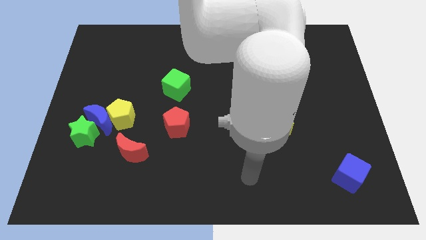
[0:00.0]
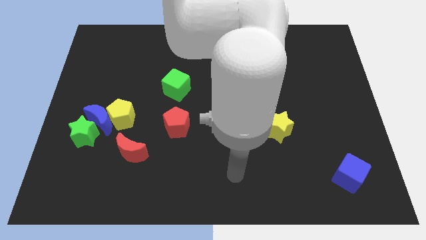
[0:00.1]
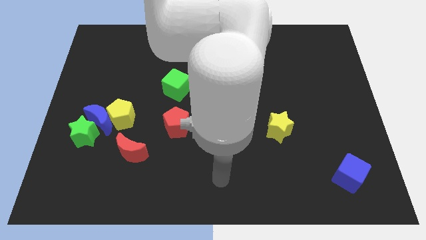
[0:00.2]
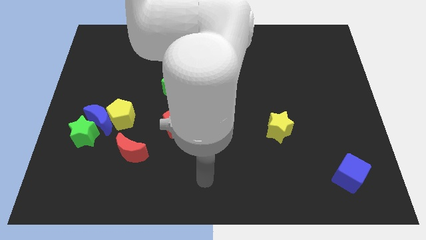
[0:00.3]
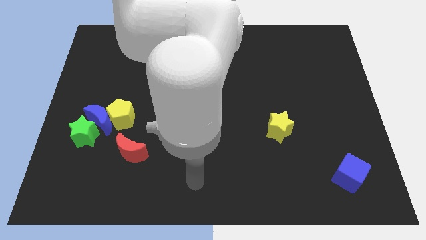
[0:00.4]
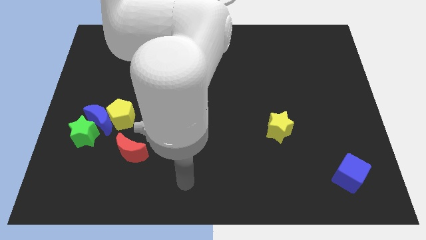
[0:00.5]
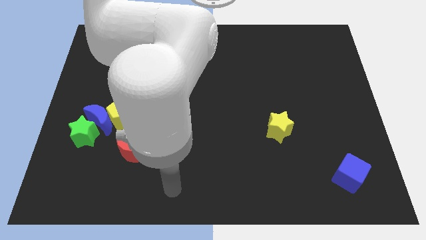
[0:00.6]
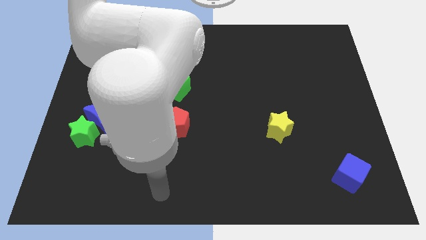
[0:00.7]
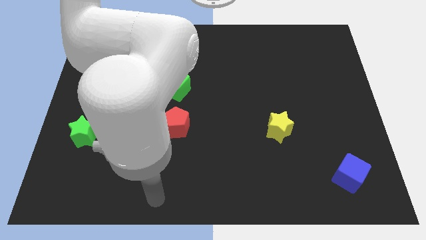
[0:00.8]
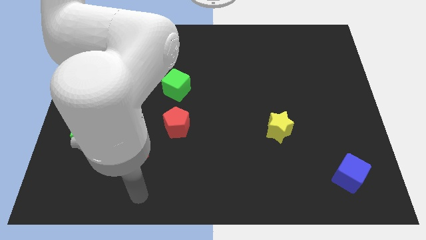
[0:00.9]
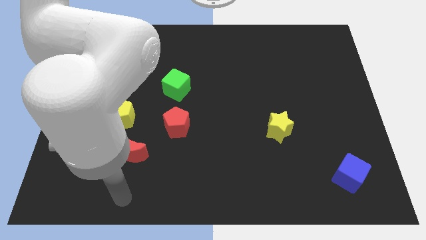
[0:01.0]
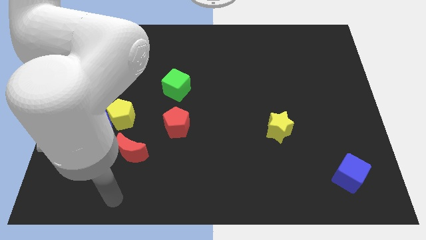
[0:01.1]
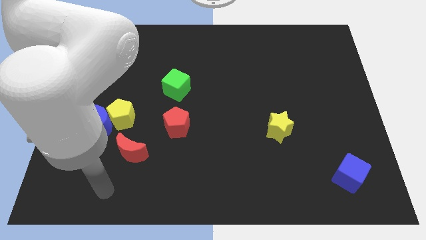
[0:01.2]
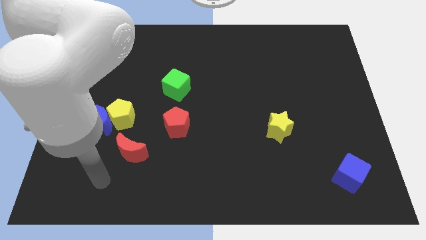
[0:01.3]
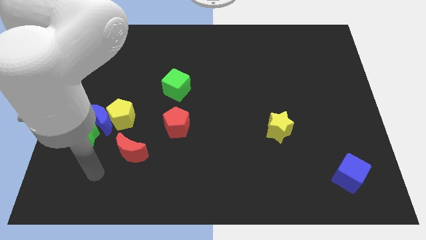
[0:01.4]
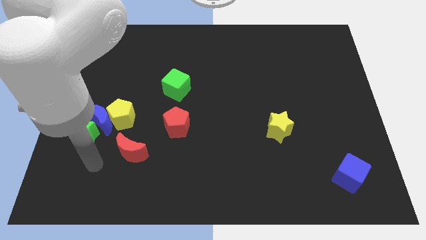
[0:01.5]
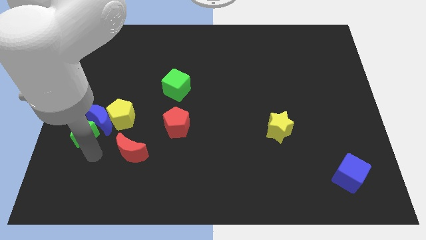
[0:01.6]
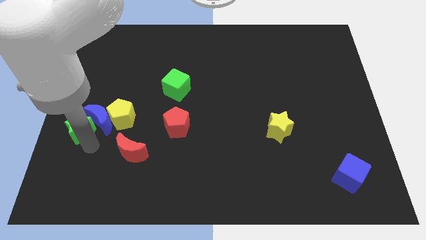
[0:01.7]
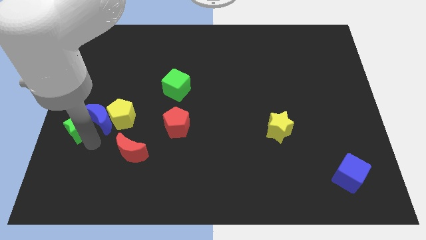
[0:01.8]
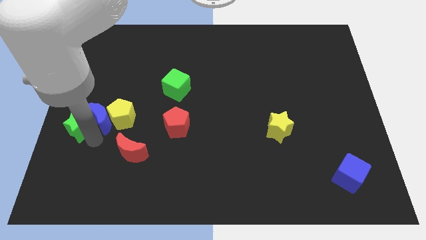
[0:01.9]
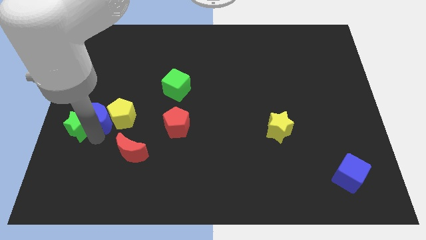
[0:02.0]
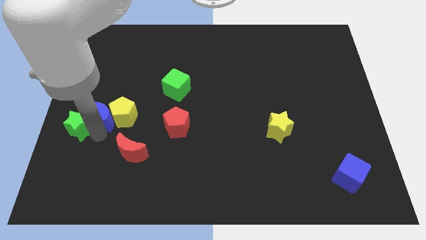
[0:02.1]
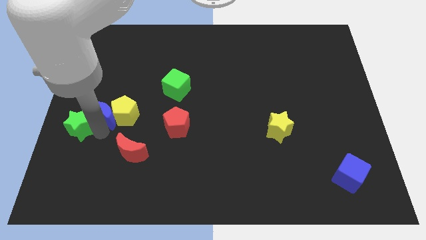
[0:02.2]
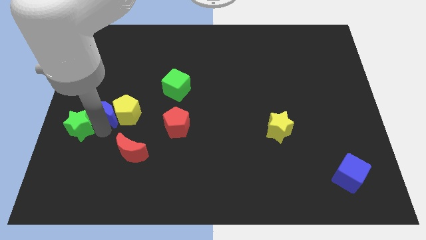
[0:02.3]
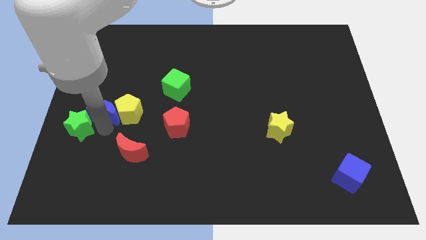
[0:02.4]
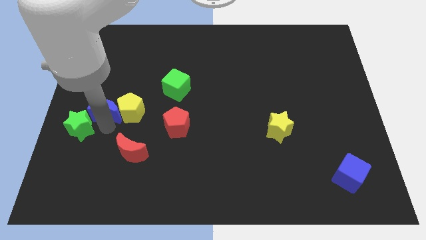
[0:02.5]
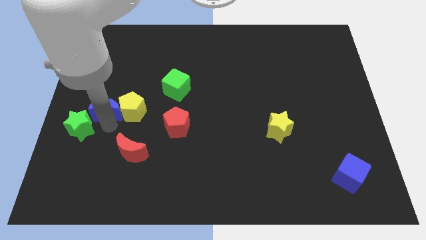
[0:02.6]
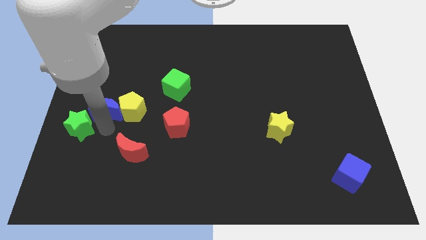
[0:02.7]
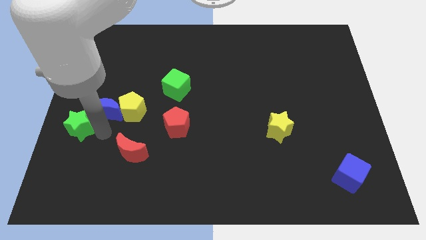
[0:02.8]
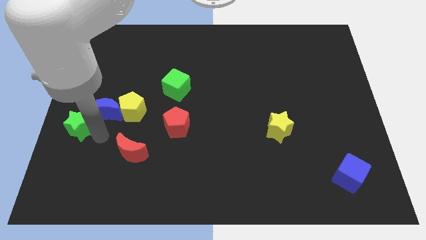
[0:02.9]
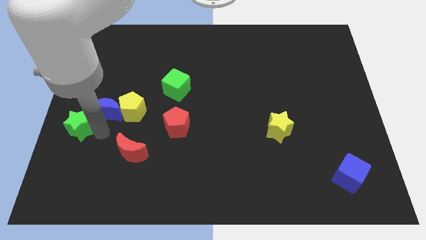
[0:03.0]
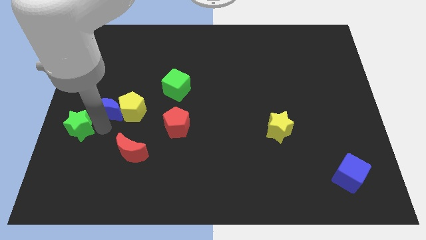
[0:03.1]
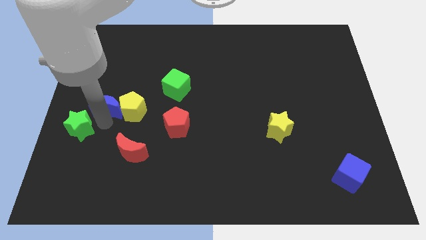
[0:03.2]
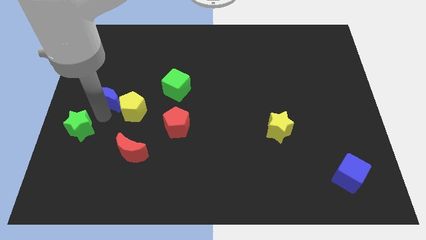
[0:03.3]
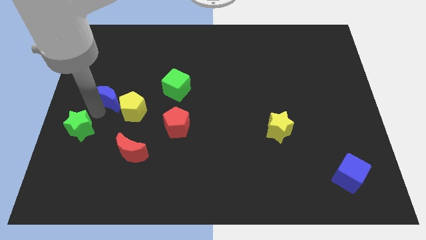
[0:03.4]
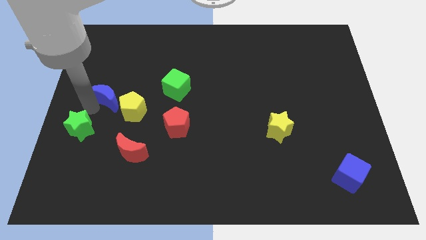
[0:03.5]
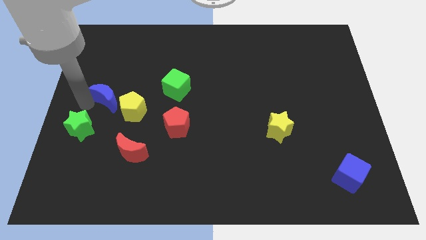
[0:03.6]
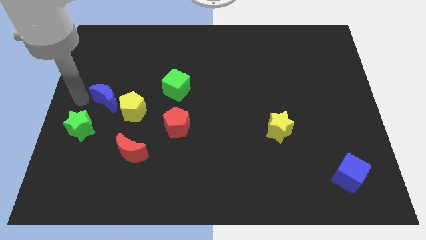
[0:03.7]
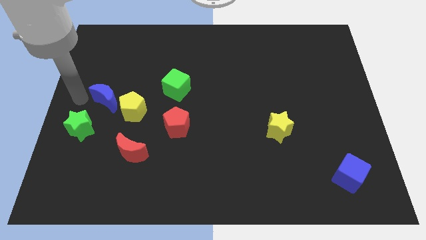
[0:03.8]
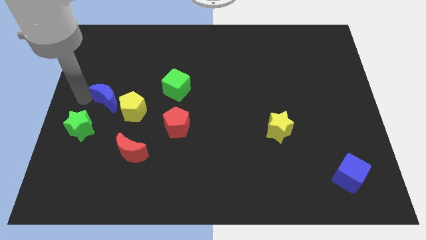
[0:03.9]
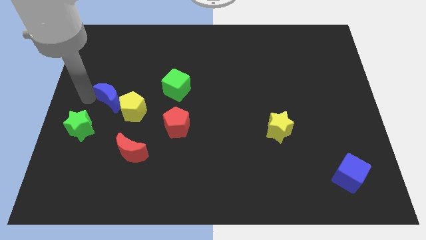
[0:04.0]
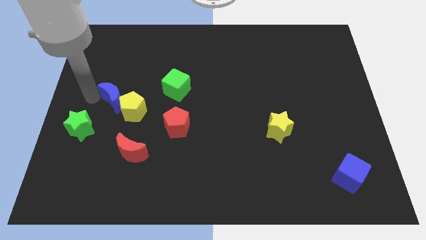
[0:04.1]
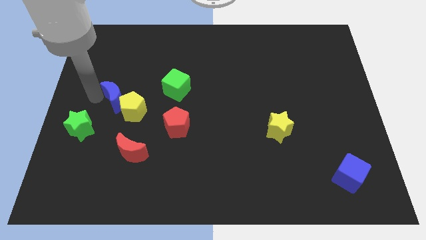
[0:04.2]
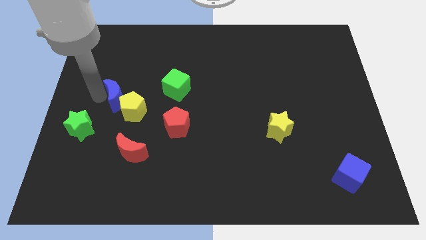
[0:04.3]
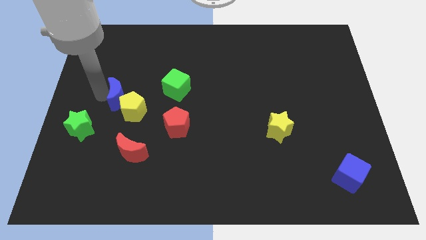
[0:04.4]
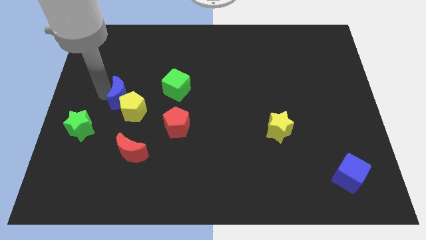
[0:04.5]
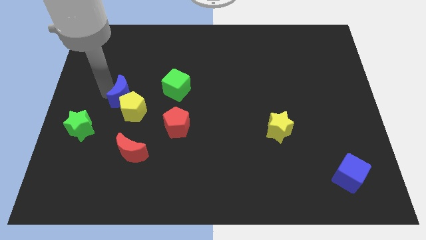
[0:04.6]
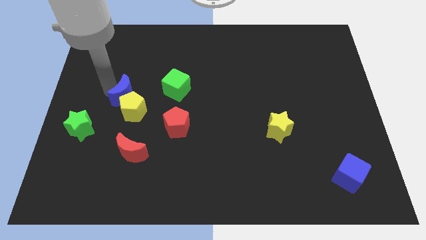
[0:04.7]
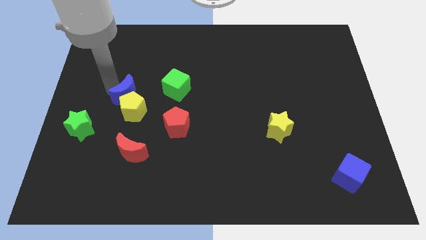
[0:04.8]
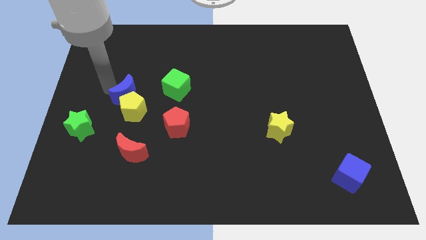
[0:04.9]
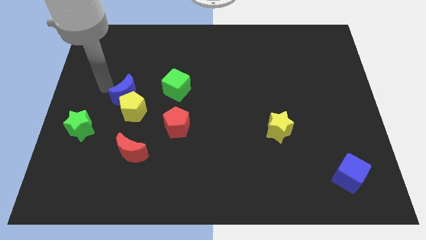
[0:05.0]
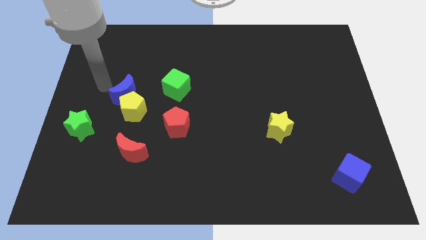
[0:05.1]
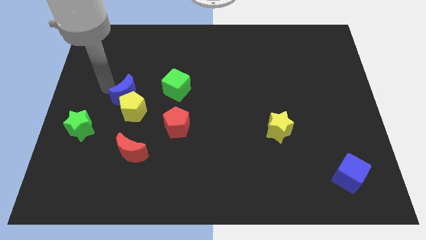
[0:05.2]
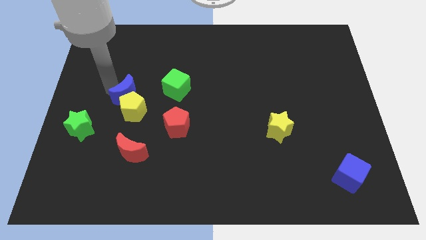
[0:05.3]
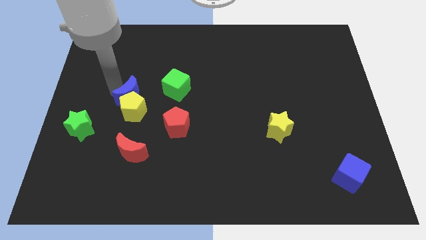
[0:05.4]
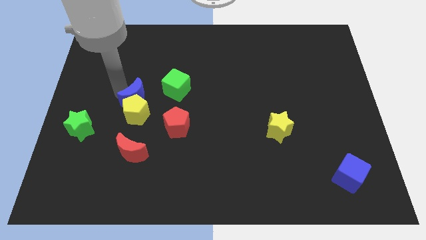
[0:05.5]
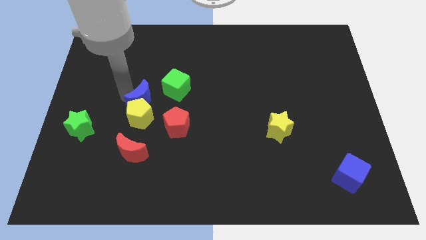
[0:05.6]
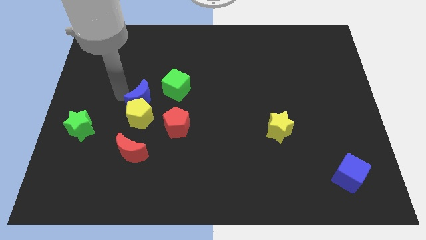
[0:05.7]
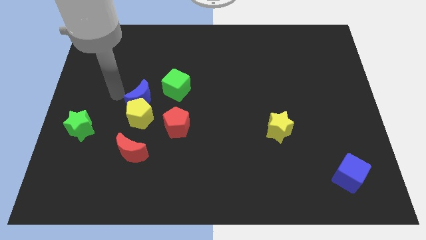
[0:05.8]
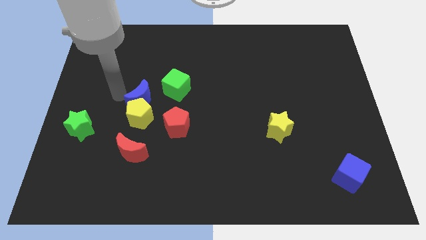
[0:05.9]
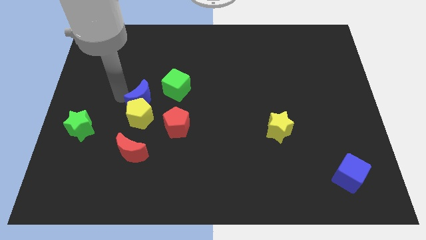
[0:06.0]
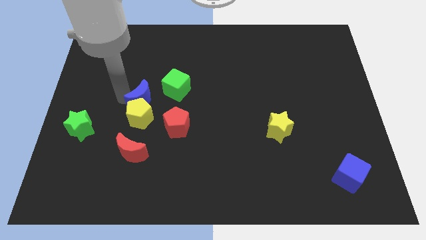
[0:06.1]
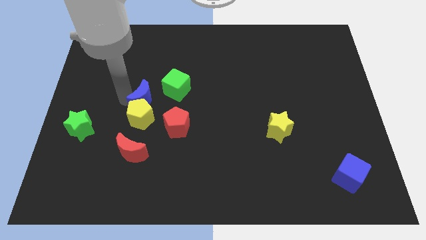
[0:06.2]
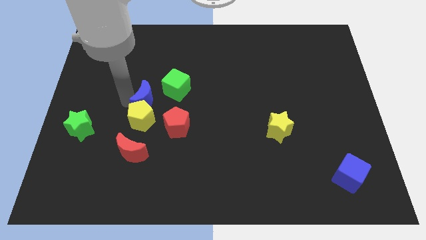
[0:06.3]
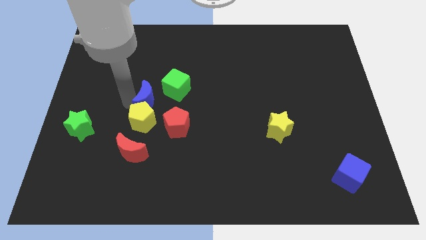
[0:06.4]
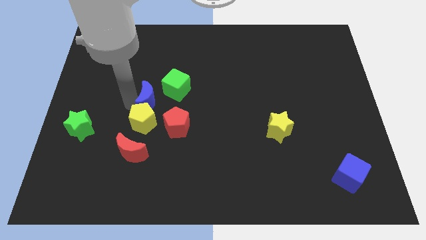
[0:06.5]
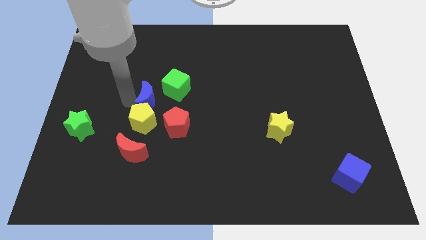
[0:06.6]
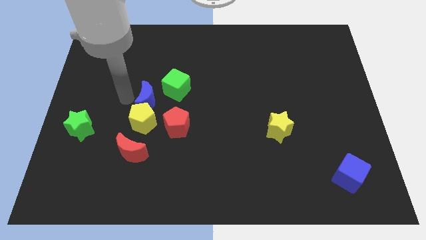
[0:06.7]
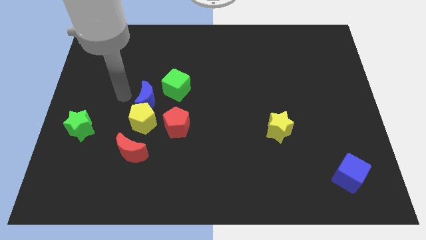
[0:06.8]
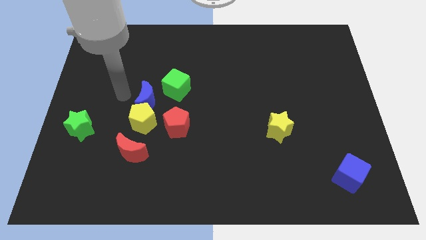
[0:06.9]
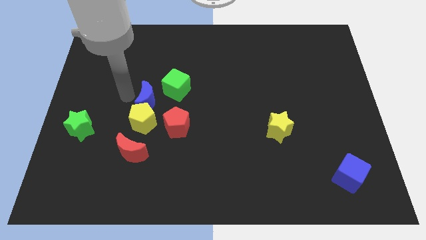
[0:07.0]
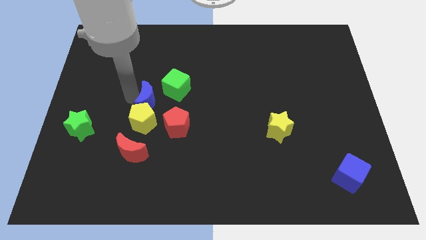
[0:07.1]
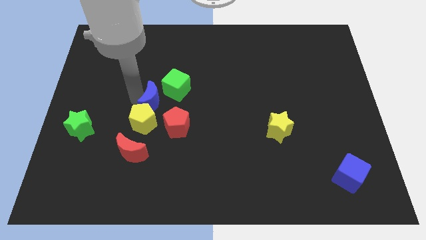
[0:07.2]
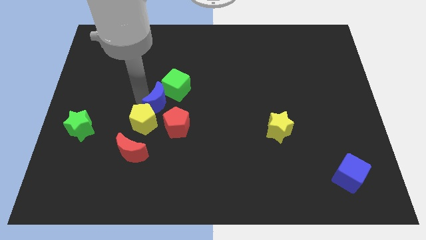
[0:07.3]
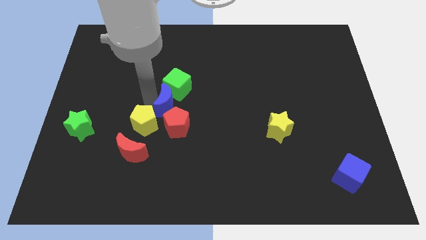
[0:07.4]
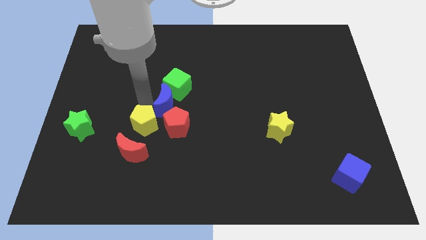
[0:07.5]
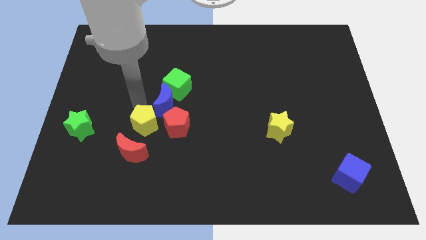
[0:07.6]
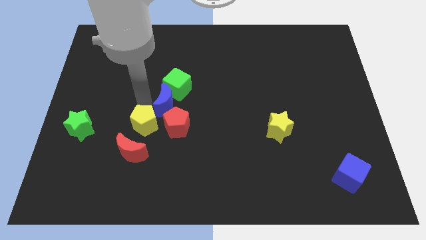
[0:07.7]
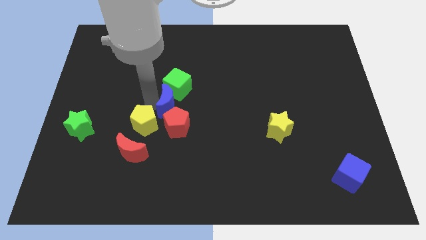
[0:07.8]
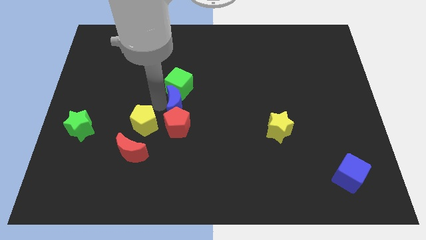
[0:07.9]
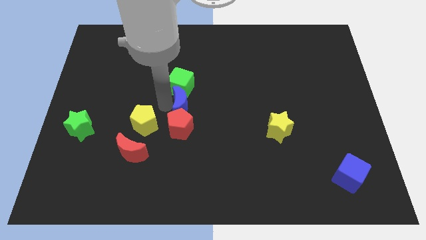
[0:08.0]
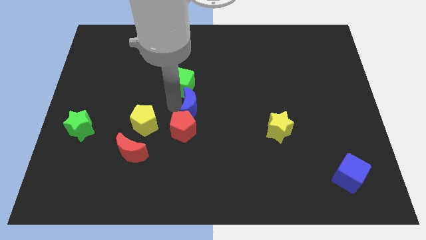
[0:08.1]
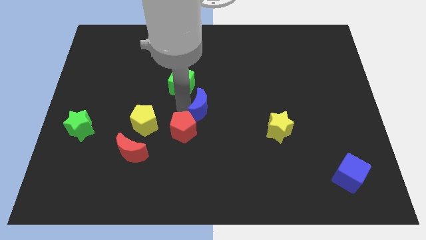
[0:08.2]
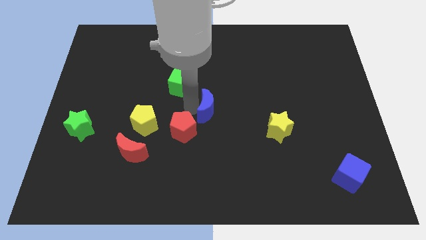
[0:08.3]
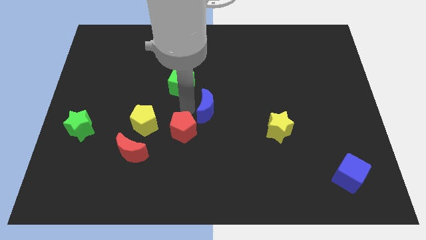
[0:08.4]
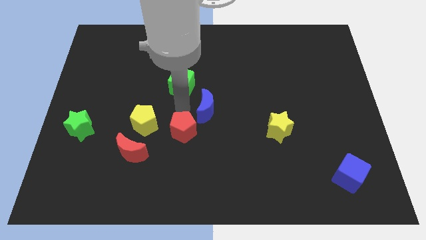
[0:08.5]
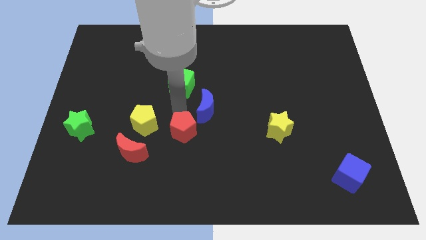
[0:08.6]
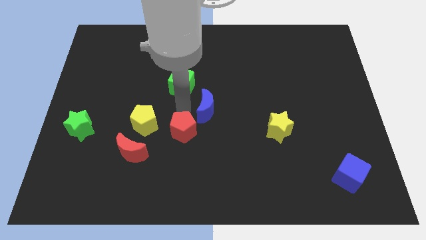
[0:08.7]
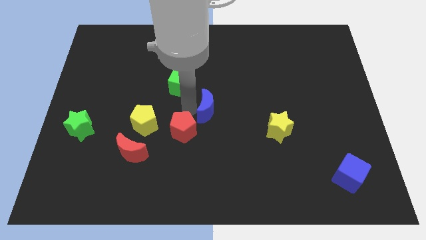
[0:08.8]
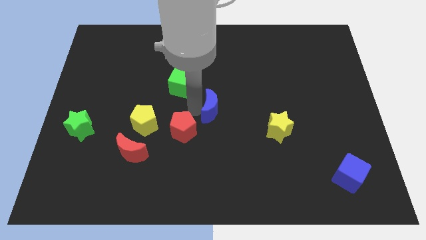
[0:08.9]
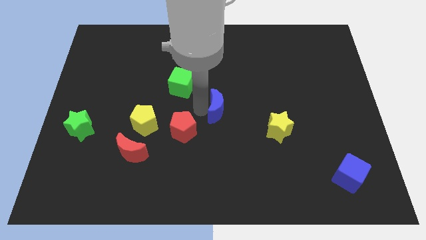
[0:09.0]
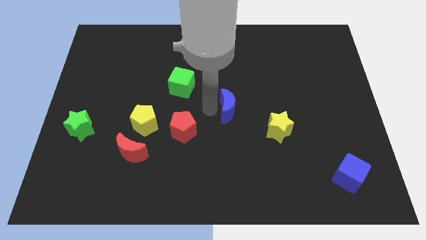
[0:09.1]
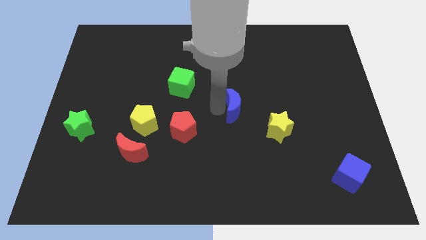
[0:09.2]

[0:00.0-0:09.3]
move the blue moon to the top left of the yellow star
